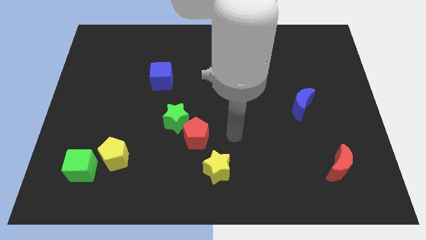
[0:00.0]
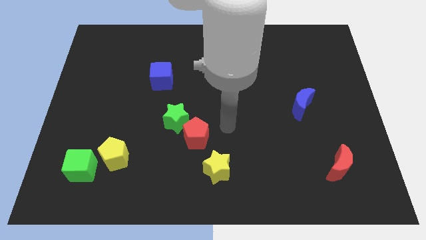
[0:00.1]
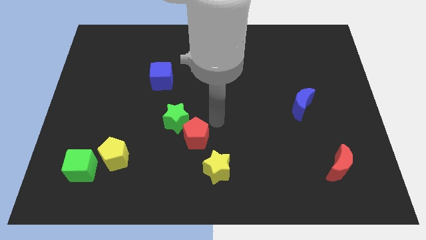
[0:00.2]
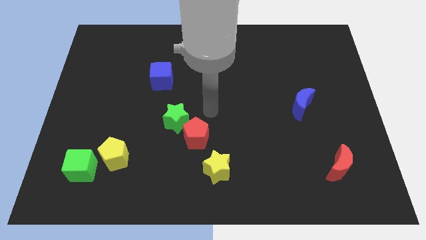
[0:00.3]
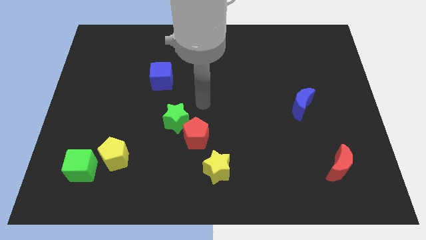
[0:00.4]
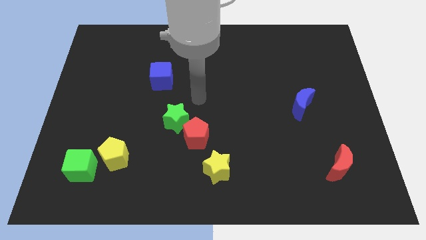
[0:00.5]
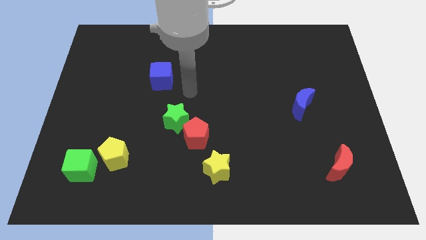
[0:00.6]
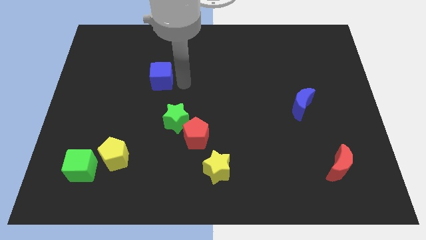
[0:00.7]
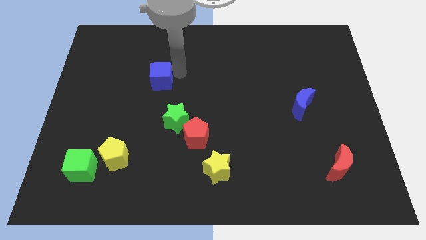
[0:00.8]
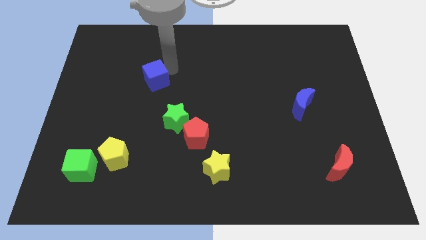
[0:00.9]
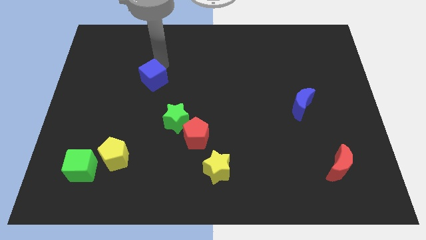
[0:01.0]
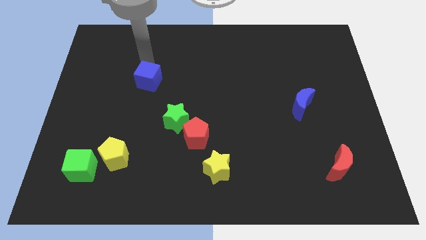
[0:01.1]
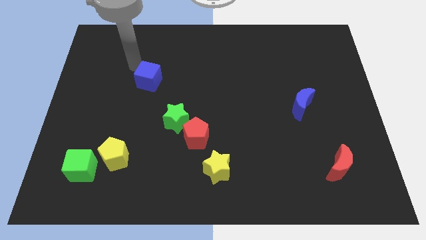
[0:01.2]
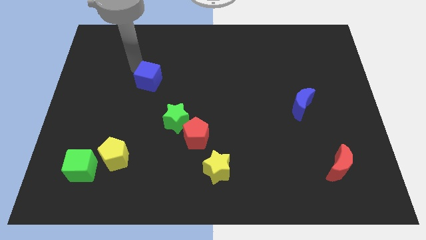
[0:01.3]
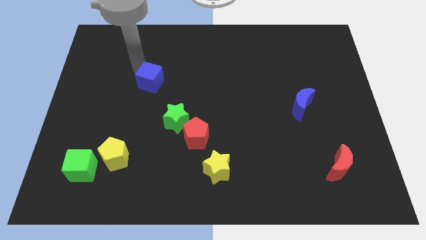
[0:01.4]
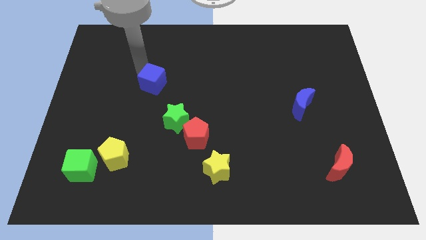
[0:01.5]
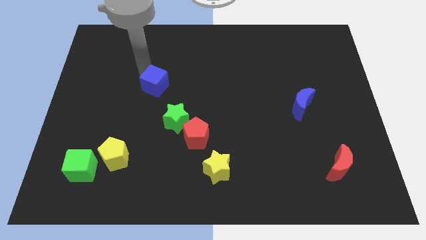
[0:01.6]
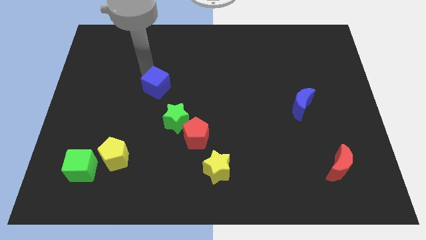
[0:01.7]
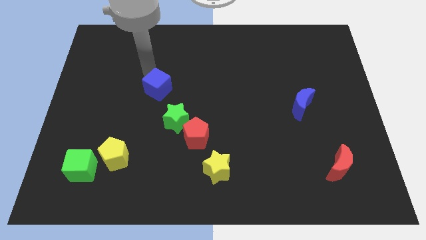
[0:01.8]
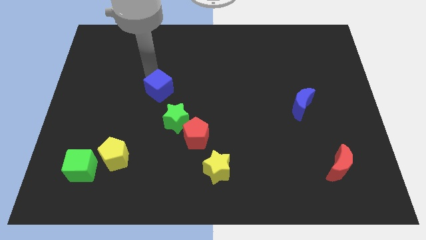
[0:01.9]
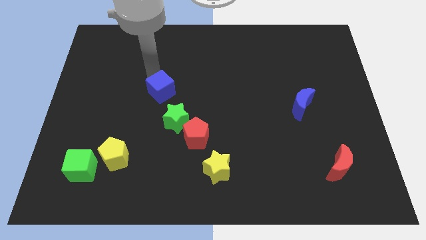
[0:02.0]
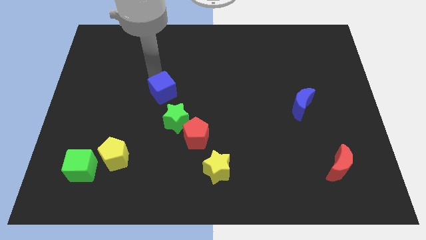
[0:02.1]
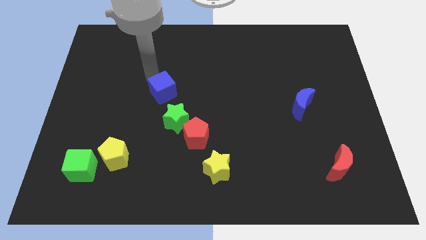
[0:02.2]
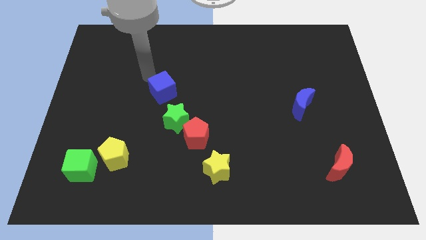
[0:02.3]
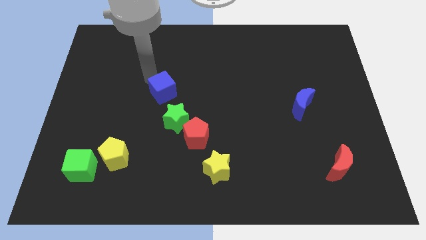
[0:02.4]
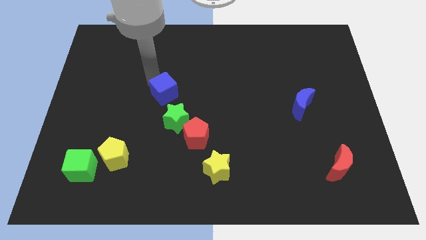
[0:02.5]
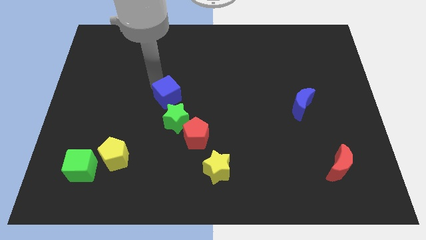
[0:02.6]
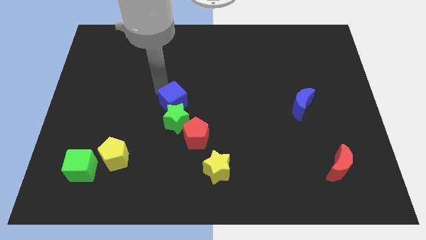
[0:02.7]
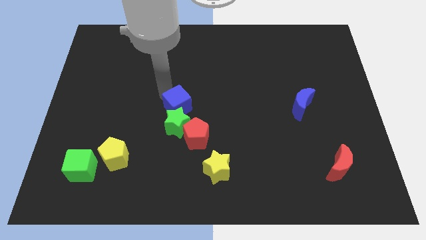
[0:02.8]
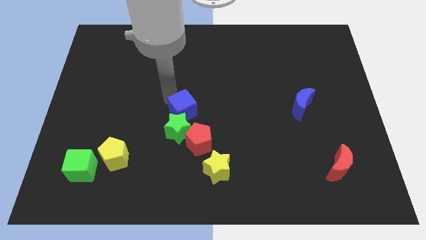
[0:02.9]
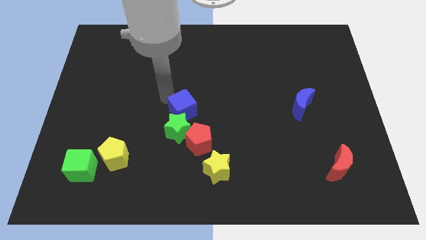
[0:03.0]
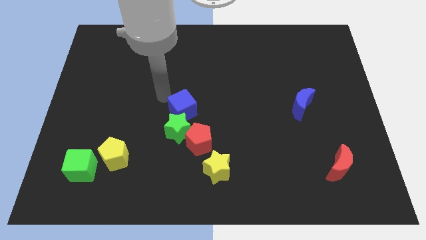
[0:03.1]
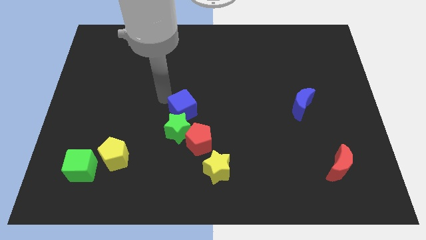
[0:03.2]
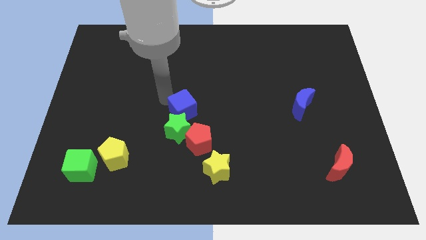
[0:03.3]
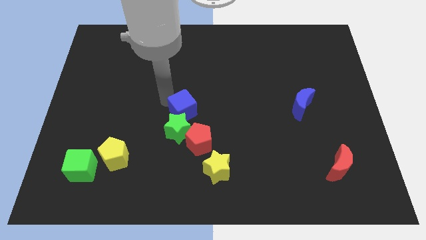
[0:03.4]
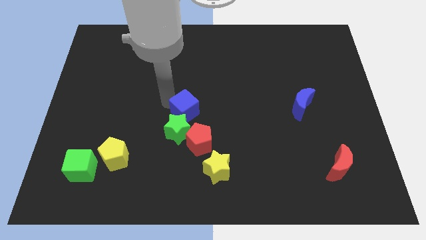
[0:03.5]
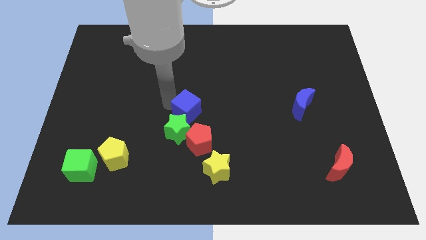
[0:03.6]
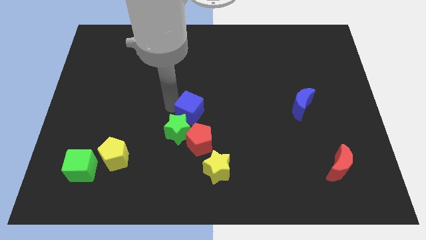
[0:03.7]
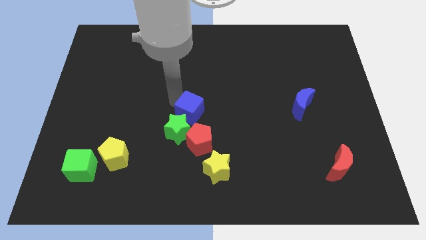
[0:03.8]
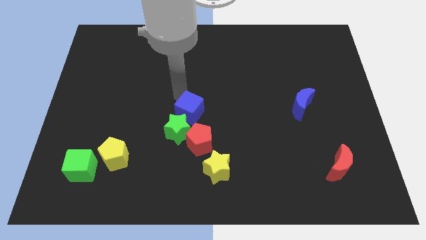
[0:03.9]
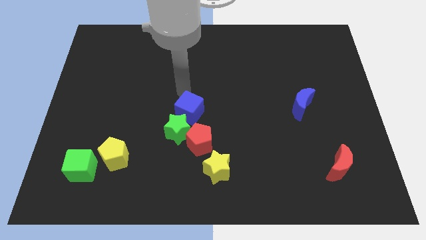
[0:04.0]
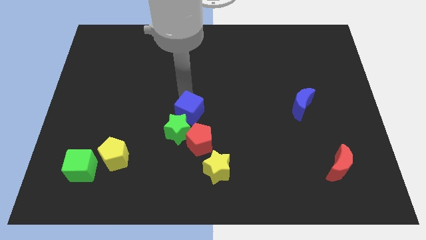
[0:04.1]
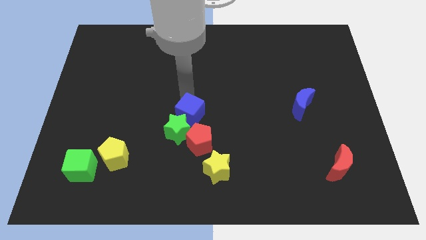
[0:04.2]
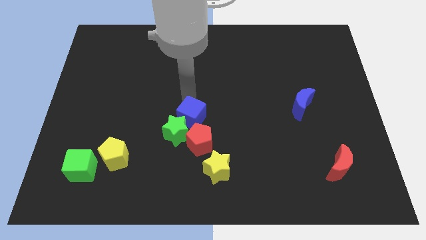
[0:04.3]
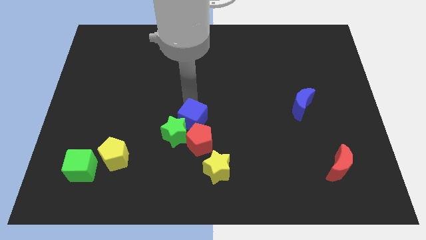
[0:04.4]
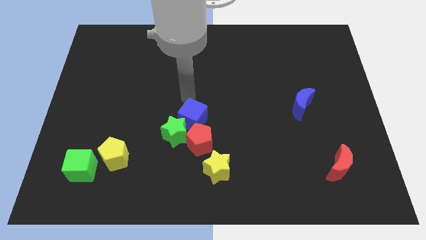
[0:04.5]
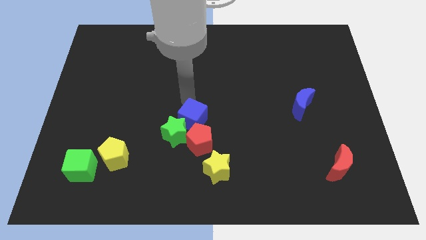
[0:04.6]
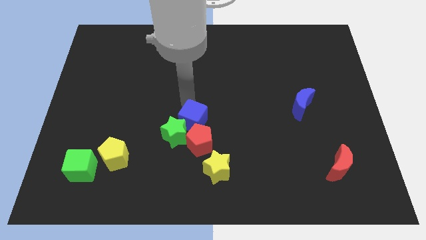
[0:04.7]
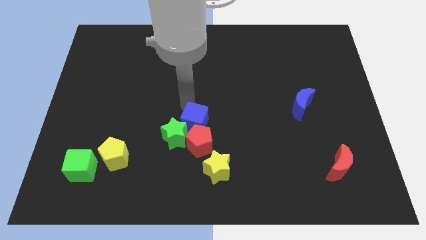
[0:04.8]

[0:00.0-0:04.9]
push the blue cube towards the red pentagon

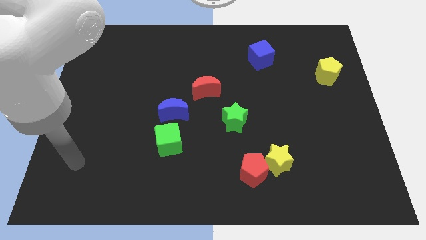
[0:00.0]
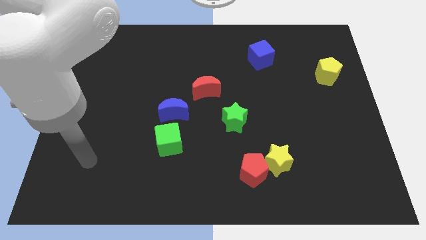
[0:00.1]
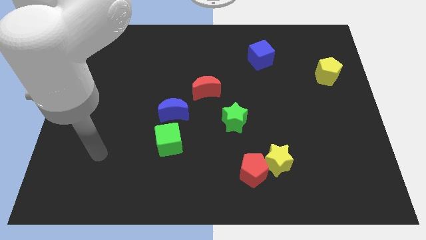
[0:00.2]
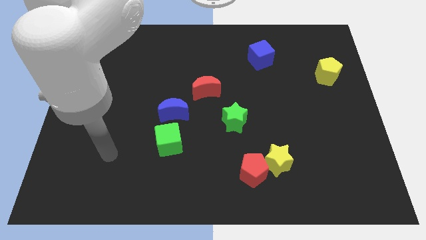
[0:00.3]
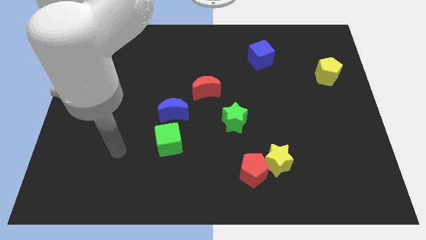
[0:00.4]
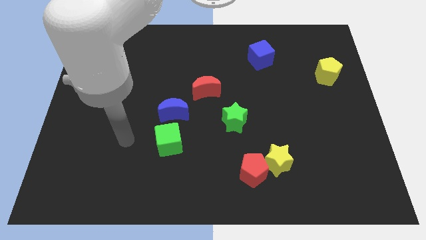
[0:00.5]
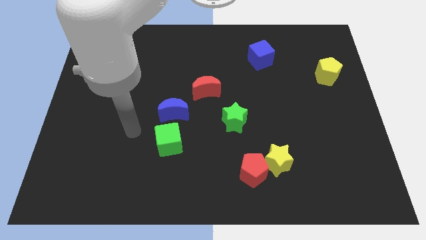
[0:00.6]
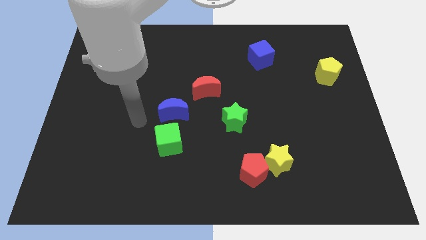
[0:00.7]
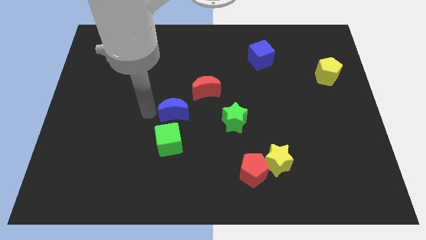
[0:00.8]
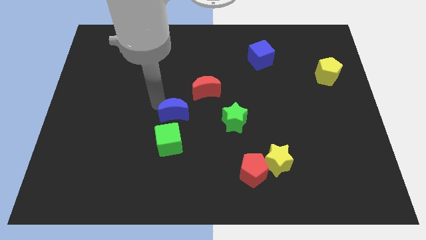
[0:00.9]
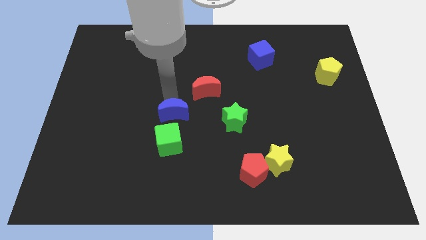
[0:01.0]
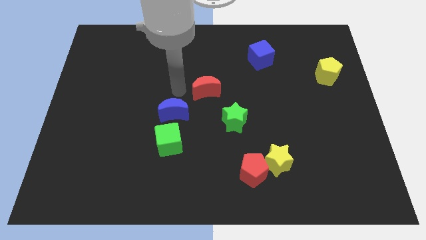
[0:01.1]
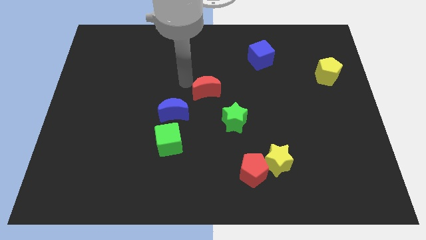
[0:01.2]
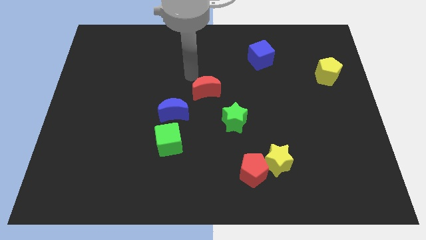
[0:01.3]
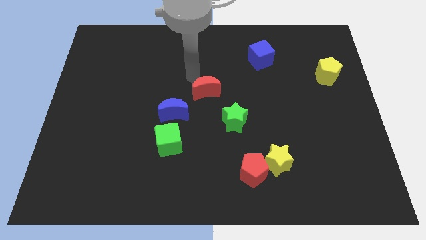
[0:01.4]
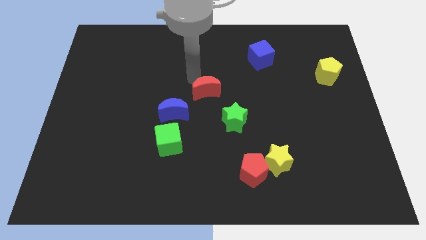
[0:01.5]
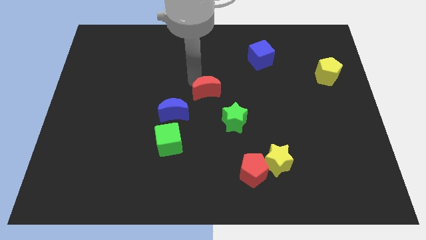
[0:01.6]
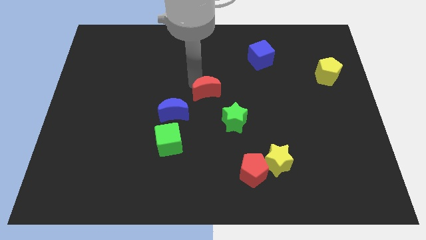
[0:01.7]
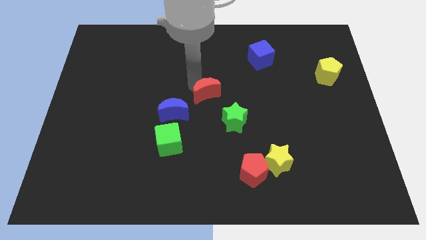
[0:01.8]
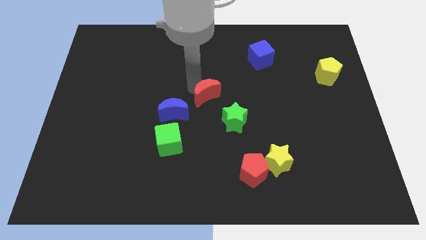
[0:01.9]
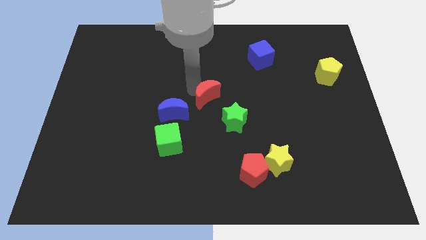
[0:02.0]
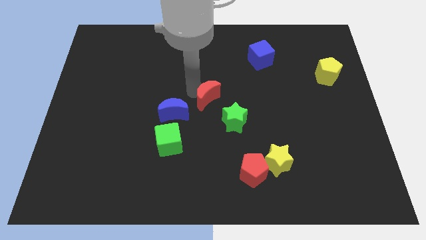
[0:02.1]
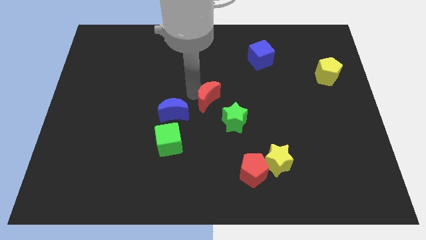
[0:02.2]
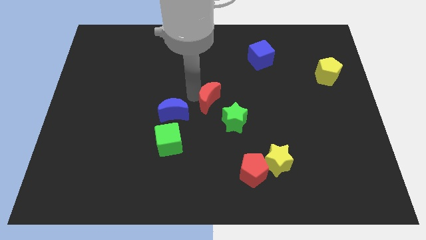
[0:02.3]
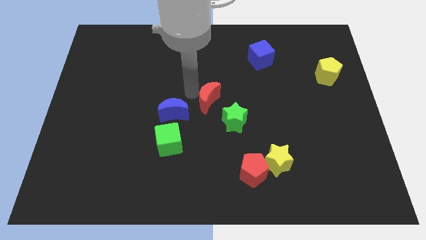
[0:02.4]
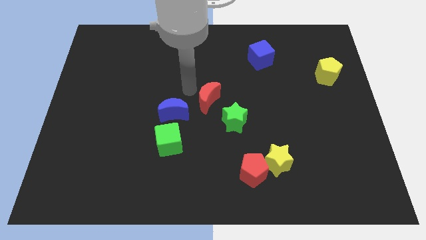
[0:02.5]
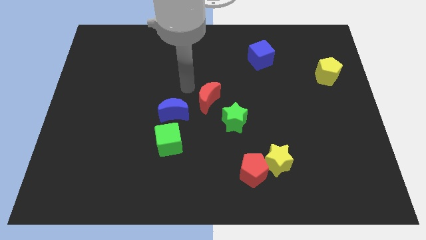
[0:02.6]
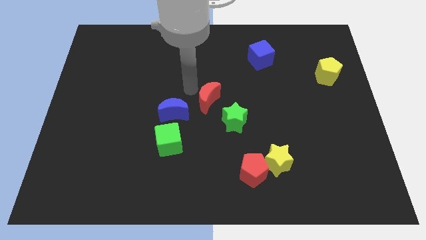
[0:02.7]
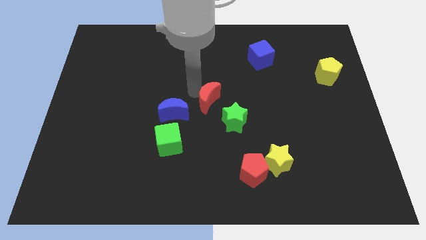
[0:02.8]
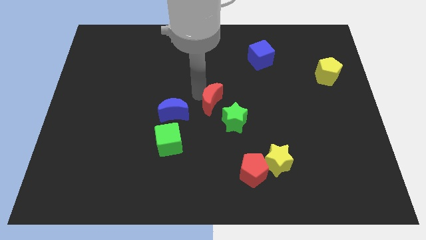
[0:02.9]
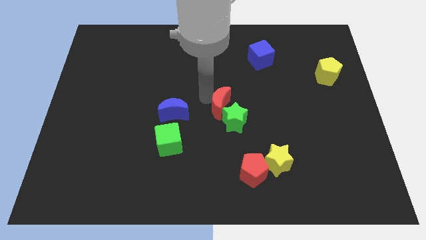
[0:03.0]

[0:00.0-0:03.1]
slide the red moon to the green star
